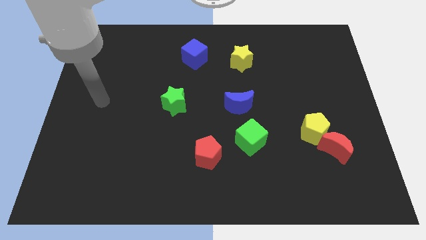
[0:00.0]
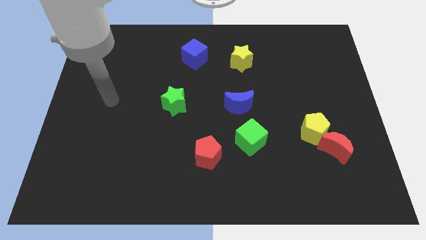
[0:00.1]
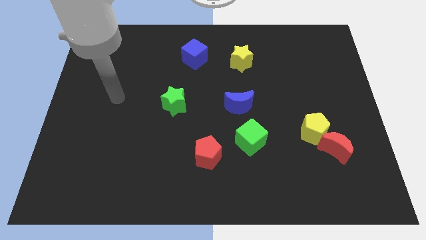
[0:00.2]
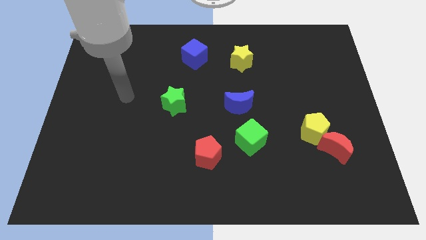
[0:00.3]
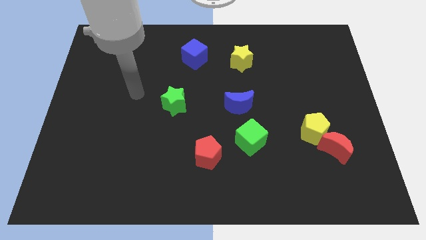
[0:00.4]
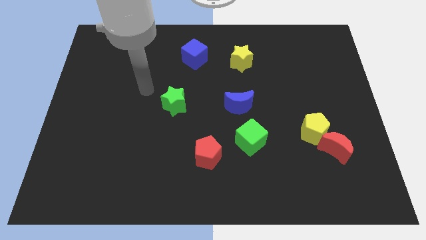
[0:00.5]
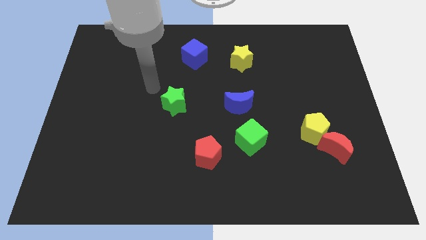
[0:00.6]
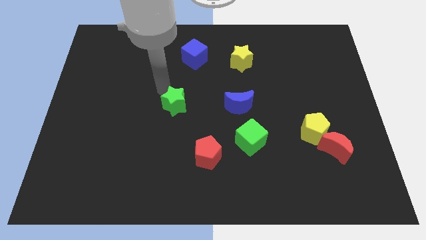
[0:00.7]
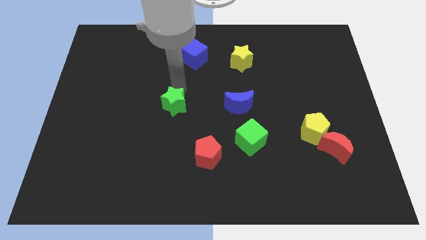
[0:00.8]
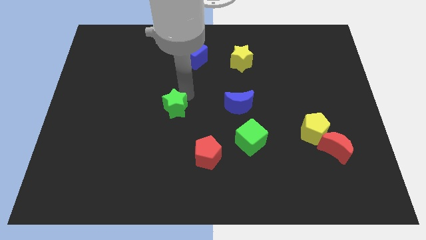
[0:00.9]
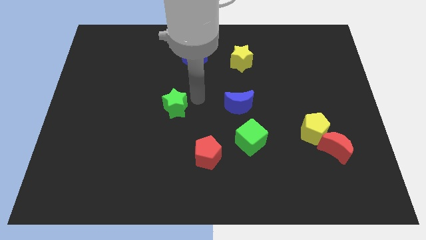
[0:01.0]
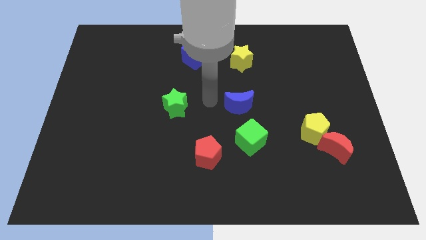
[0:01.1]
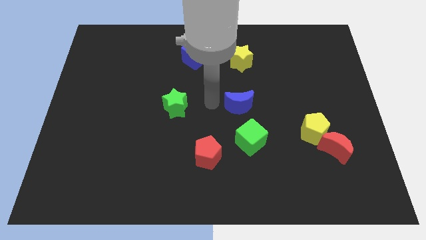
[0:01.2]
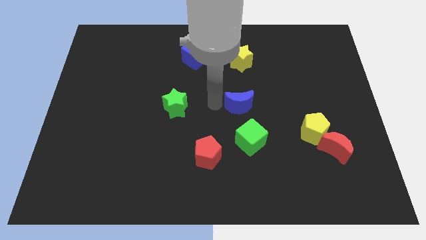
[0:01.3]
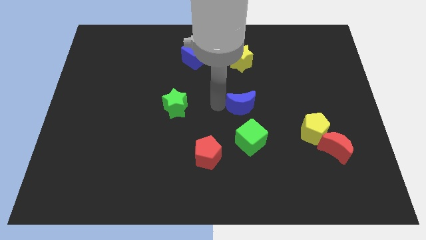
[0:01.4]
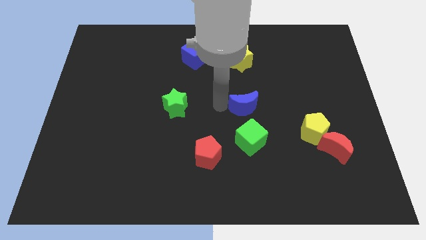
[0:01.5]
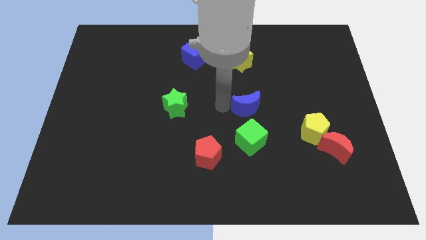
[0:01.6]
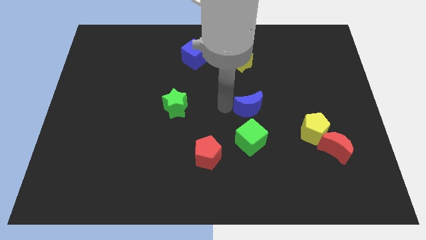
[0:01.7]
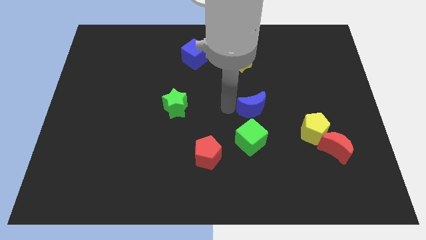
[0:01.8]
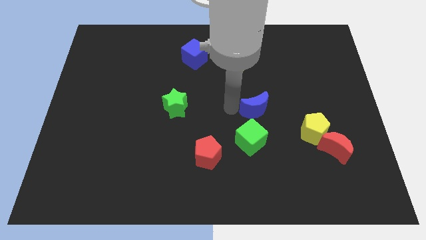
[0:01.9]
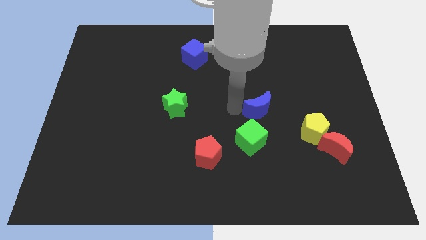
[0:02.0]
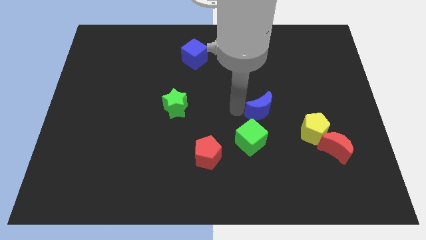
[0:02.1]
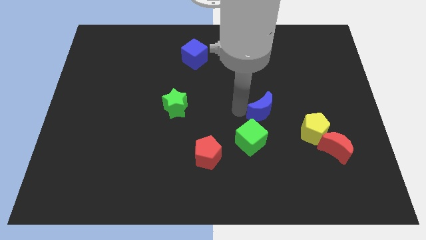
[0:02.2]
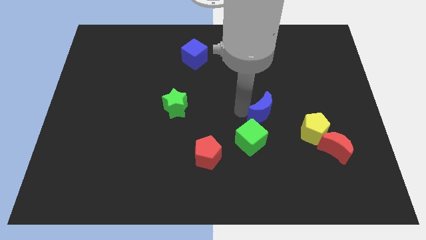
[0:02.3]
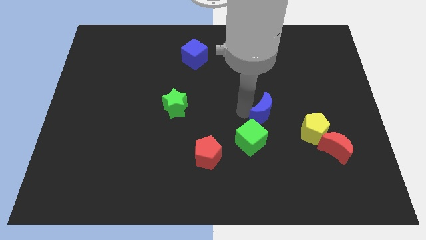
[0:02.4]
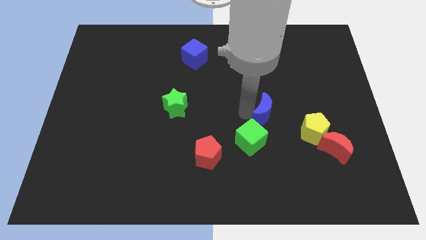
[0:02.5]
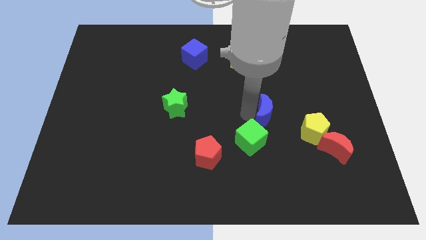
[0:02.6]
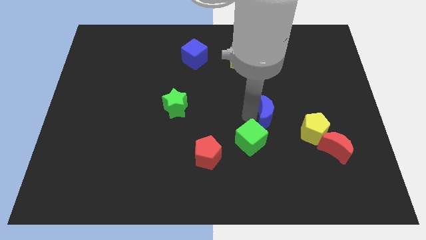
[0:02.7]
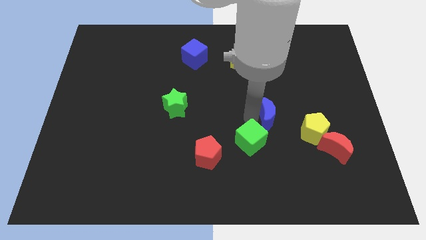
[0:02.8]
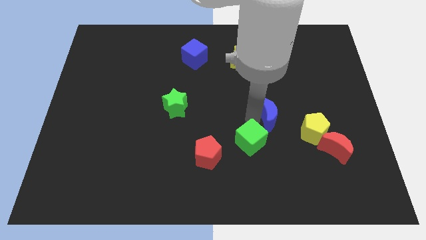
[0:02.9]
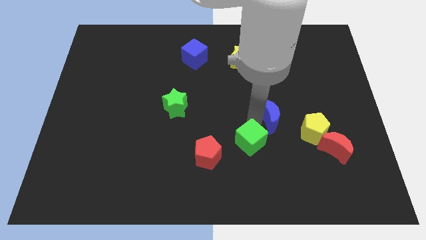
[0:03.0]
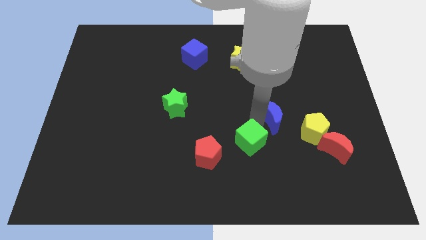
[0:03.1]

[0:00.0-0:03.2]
move the blue moon to the right a little

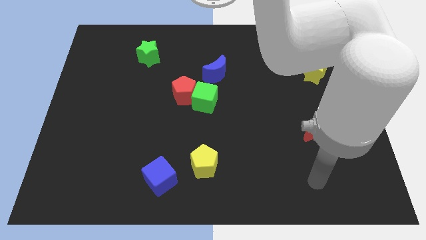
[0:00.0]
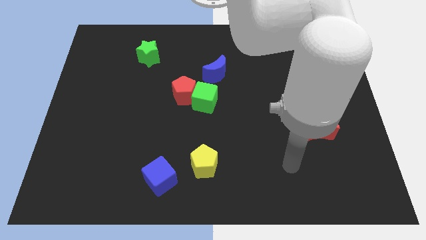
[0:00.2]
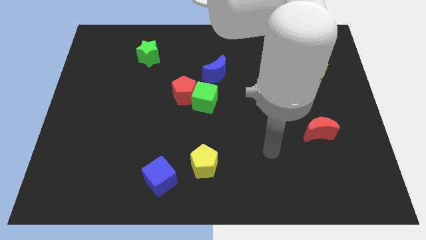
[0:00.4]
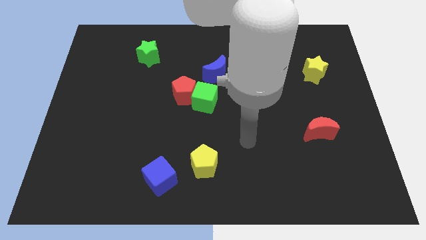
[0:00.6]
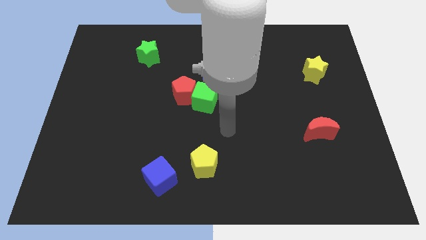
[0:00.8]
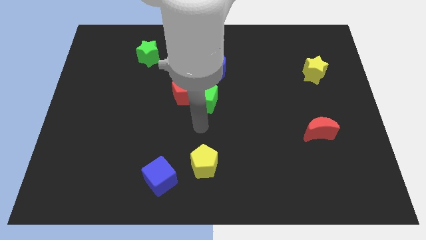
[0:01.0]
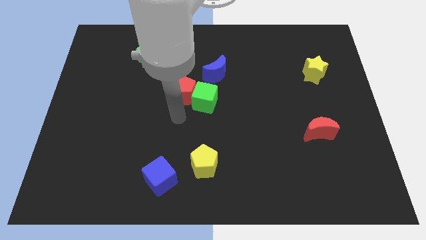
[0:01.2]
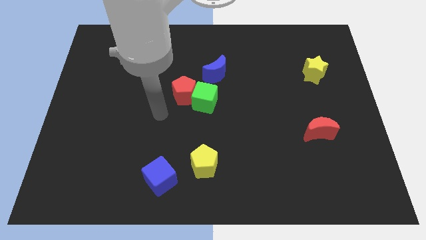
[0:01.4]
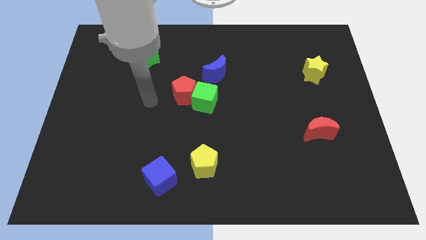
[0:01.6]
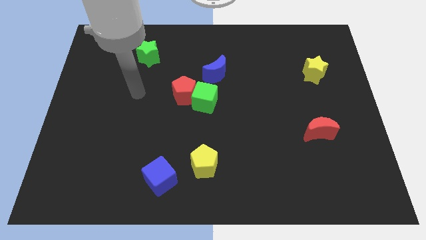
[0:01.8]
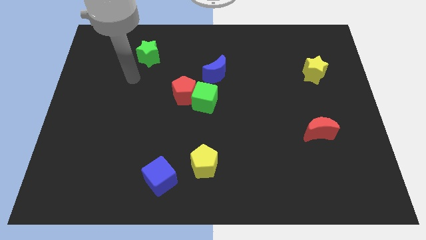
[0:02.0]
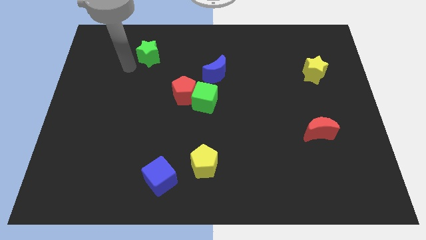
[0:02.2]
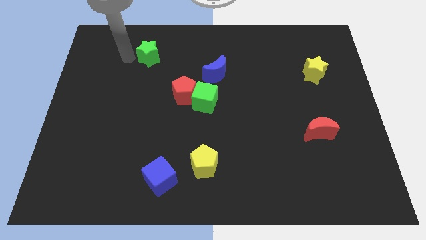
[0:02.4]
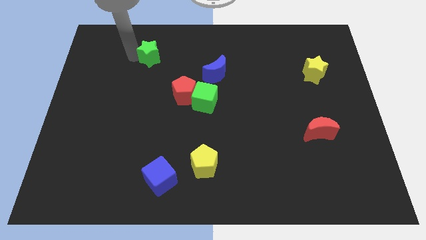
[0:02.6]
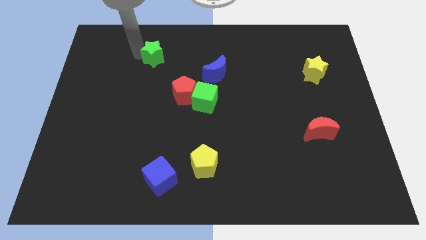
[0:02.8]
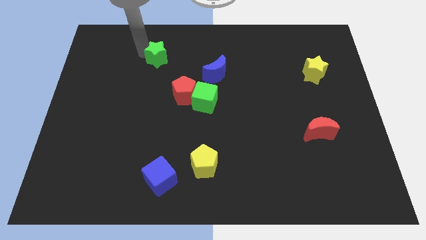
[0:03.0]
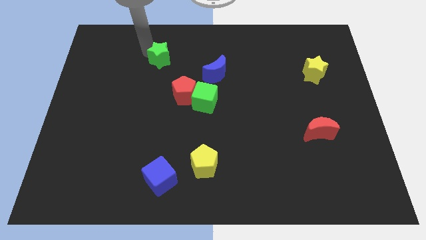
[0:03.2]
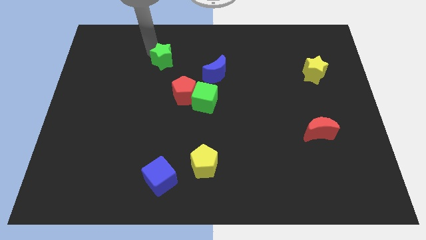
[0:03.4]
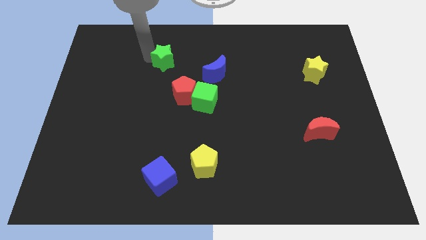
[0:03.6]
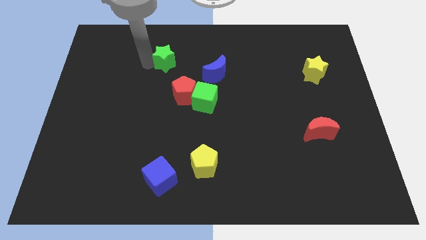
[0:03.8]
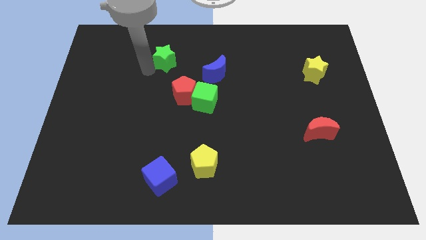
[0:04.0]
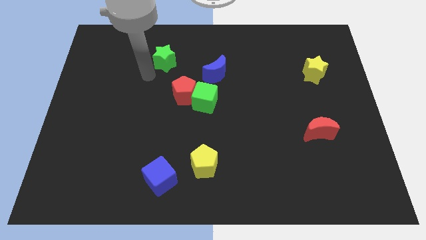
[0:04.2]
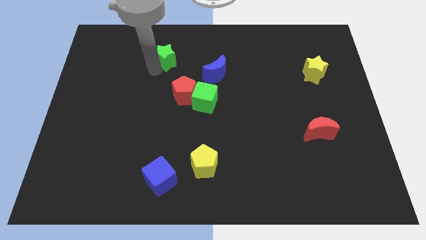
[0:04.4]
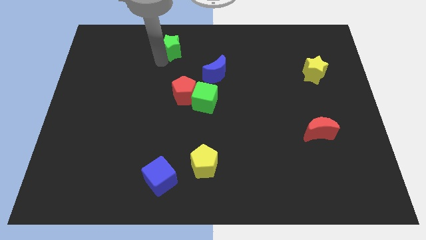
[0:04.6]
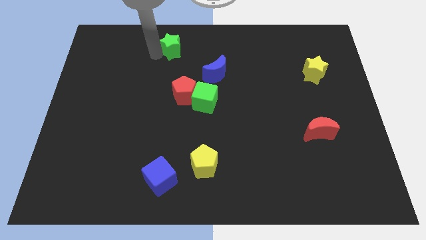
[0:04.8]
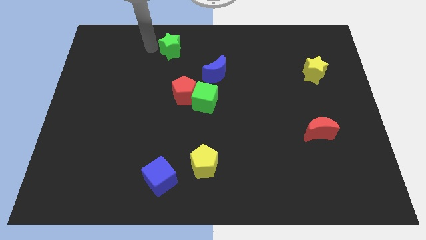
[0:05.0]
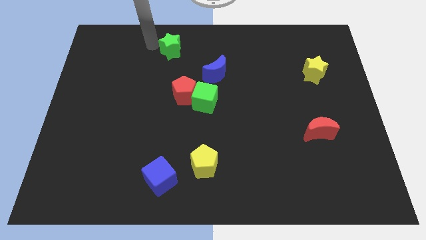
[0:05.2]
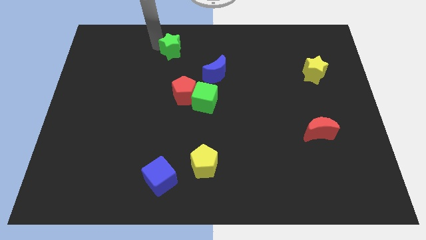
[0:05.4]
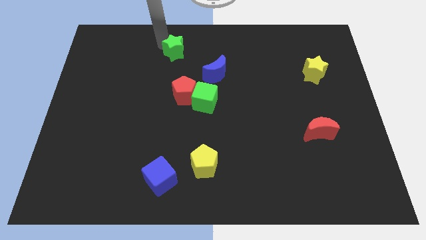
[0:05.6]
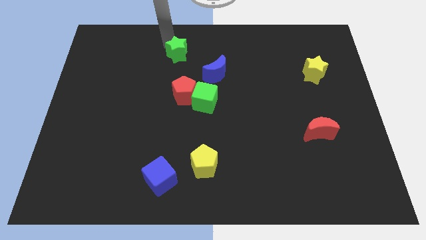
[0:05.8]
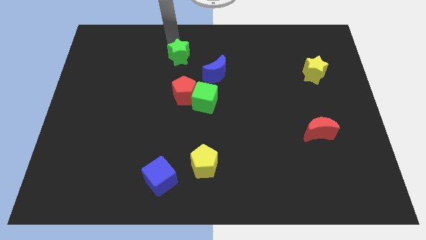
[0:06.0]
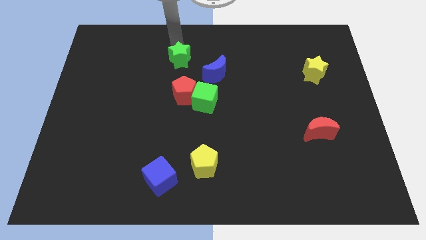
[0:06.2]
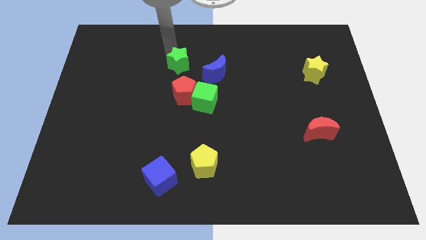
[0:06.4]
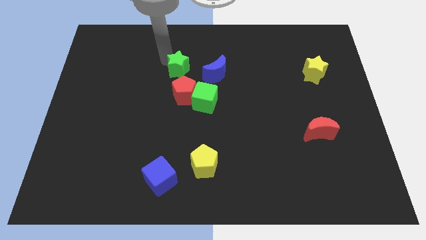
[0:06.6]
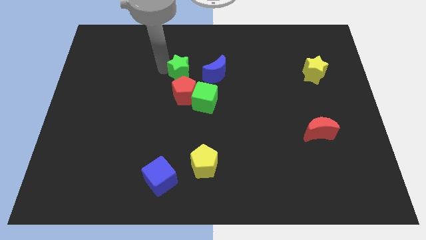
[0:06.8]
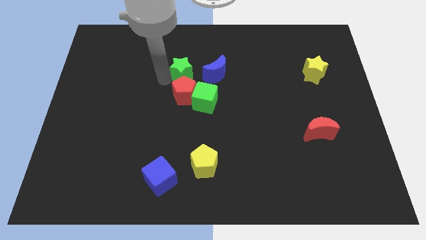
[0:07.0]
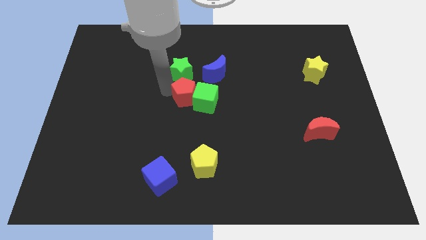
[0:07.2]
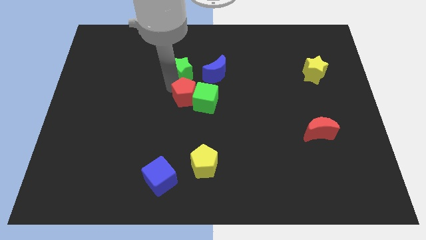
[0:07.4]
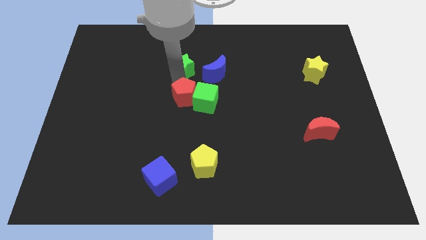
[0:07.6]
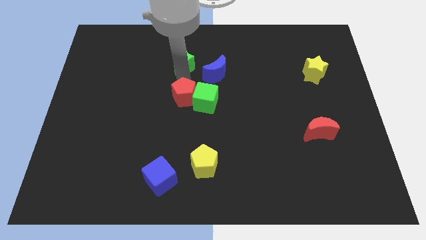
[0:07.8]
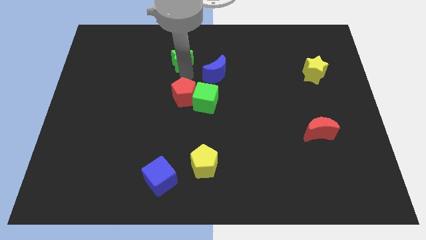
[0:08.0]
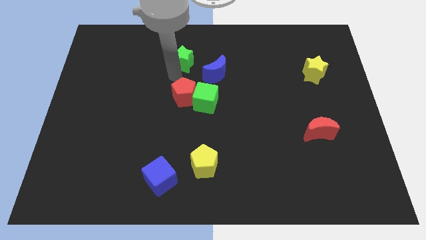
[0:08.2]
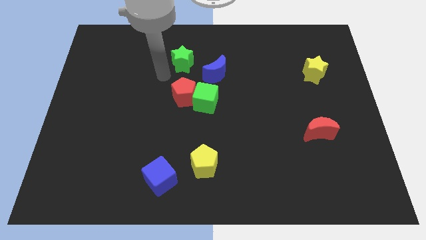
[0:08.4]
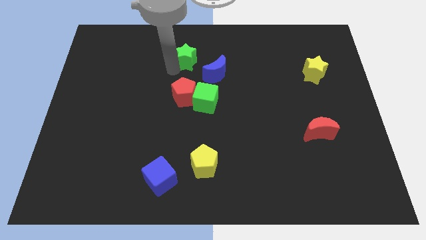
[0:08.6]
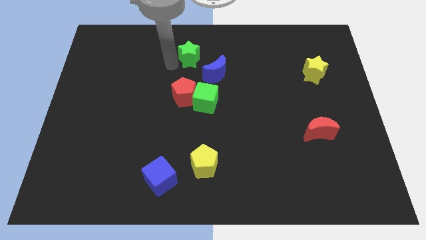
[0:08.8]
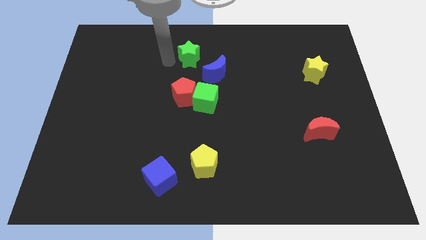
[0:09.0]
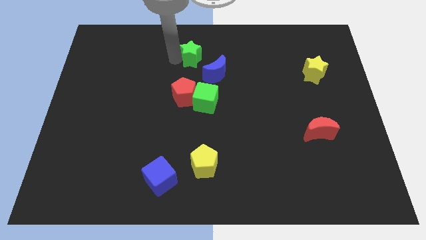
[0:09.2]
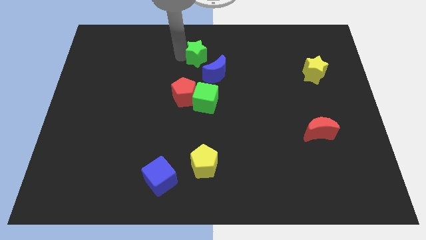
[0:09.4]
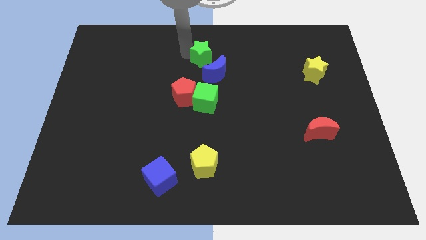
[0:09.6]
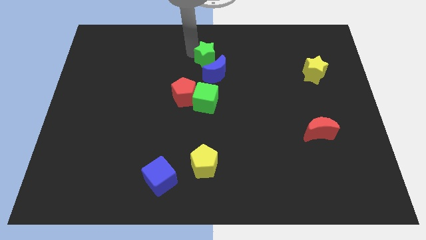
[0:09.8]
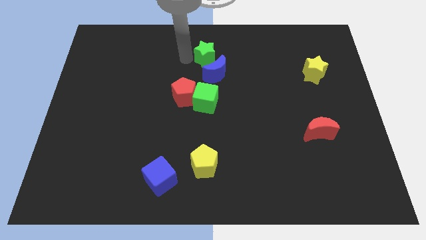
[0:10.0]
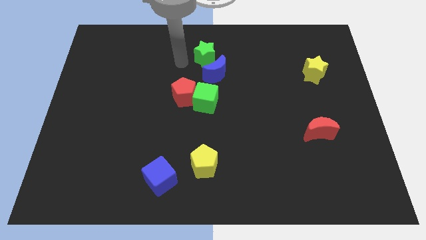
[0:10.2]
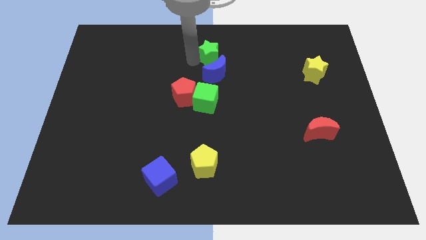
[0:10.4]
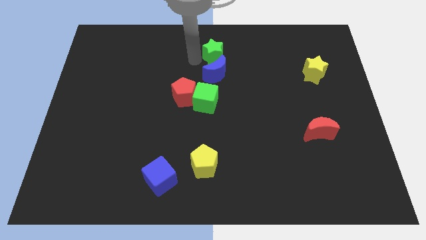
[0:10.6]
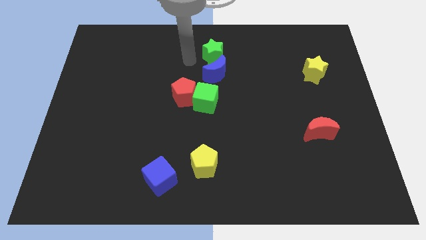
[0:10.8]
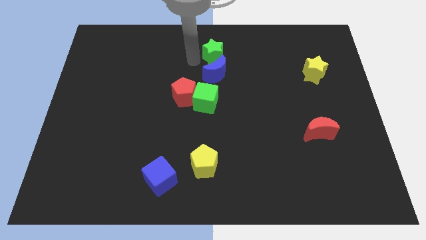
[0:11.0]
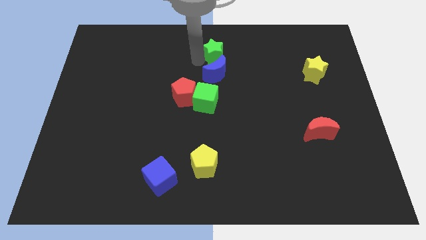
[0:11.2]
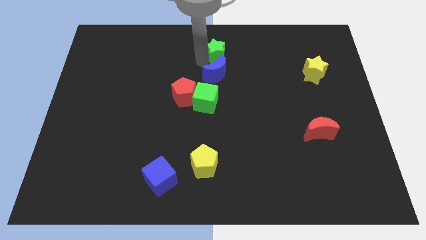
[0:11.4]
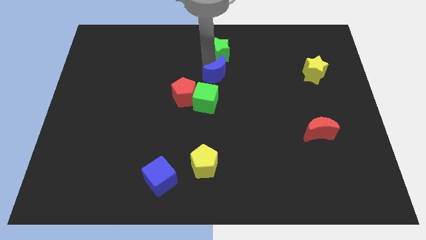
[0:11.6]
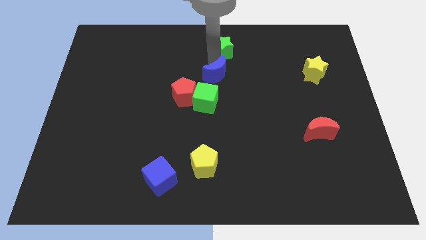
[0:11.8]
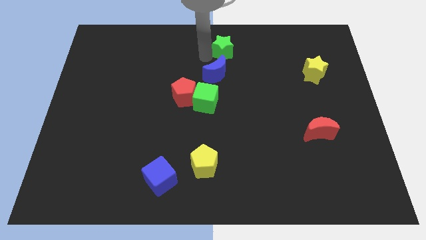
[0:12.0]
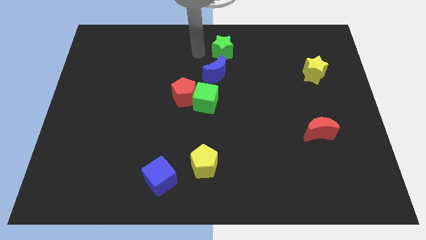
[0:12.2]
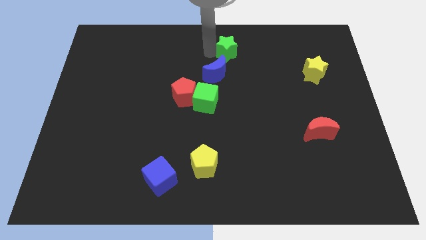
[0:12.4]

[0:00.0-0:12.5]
push the green star to the right
